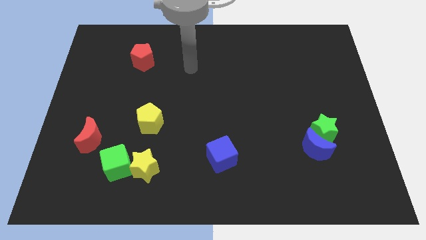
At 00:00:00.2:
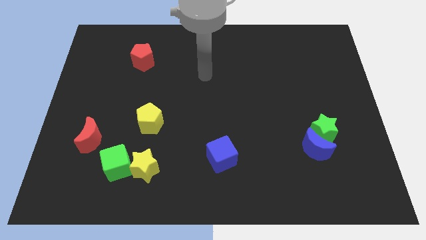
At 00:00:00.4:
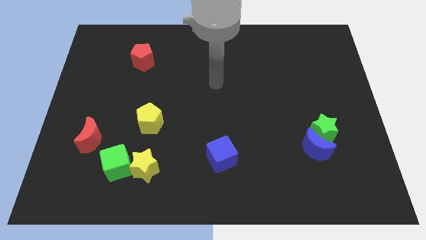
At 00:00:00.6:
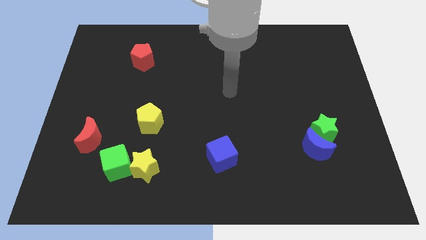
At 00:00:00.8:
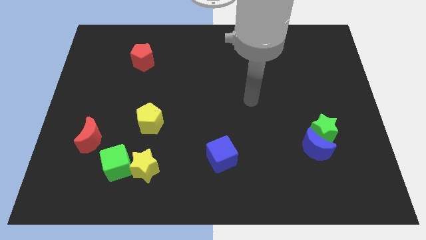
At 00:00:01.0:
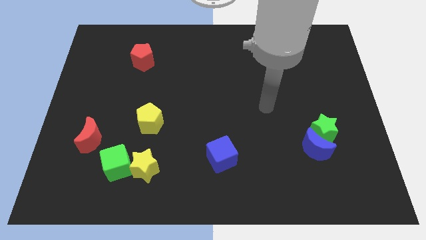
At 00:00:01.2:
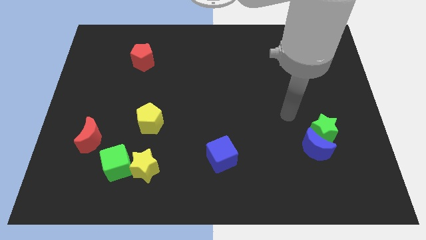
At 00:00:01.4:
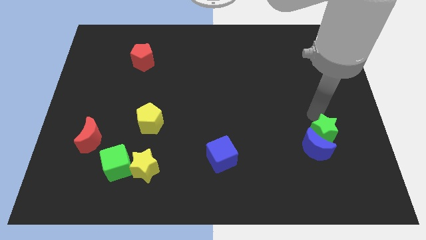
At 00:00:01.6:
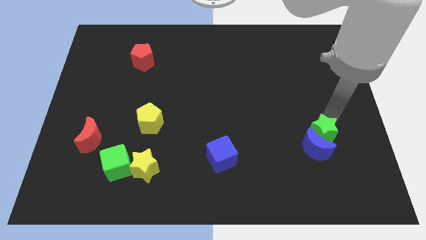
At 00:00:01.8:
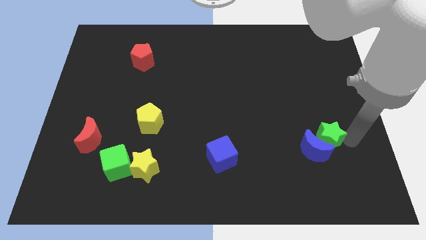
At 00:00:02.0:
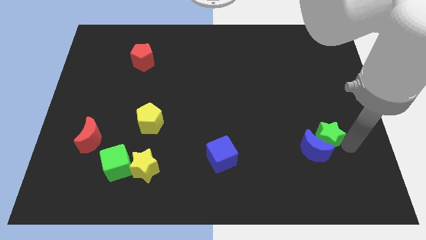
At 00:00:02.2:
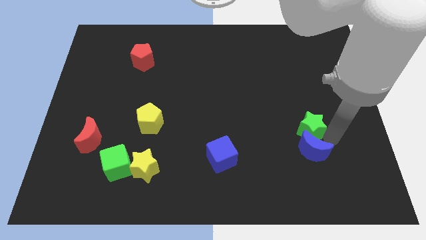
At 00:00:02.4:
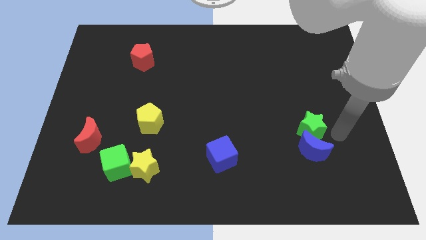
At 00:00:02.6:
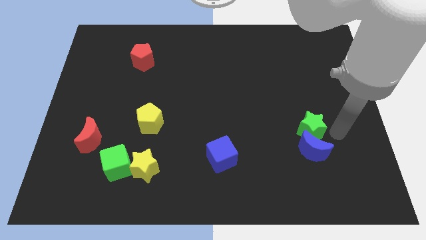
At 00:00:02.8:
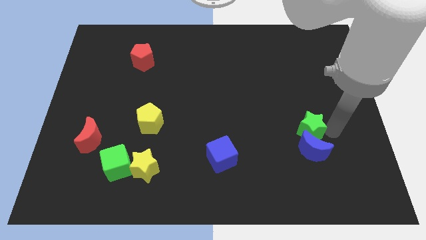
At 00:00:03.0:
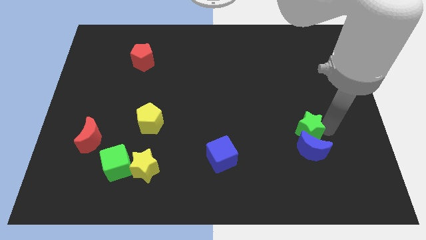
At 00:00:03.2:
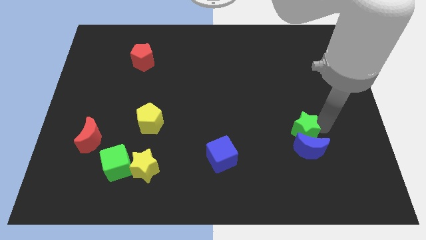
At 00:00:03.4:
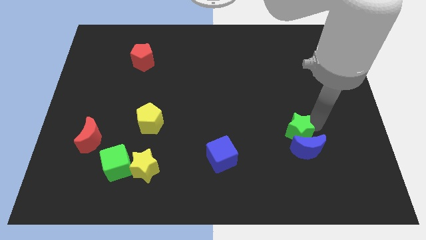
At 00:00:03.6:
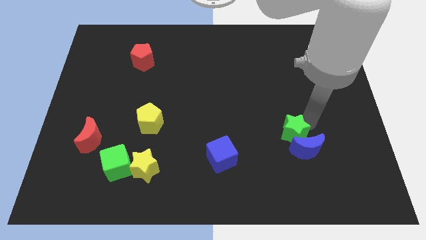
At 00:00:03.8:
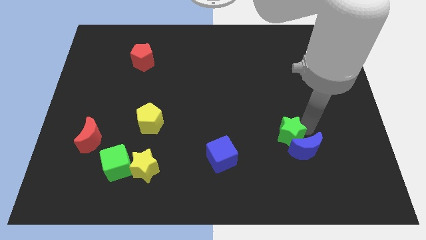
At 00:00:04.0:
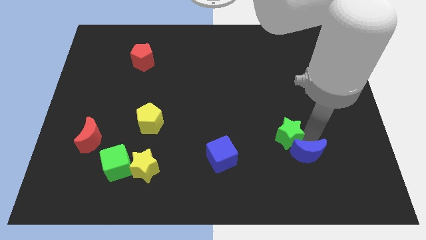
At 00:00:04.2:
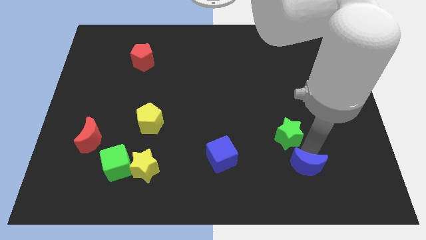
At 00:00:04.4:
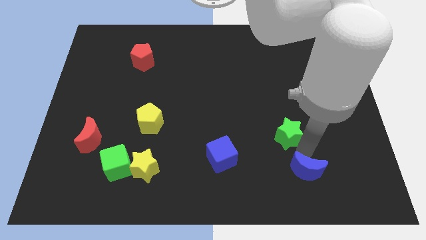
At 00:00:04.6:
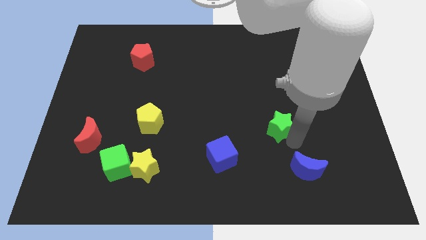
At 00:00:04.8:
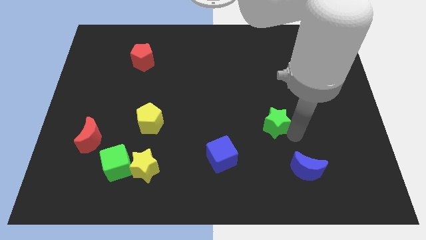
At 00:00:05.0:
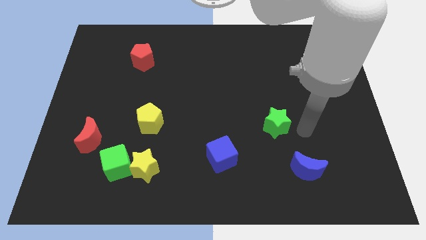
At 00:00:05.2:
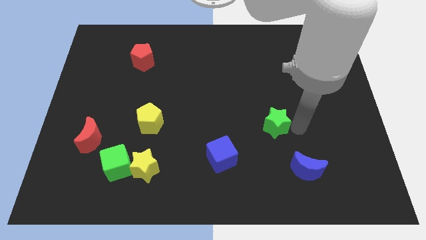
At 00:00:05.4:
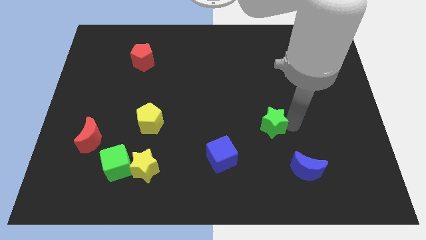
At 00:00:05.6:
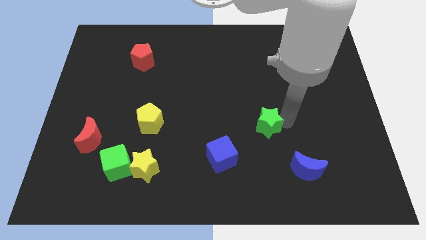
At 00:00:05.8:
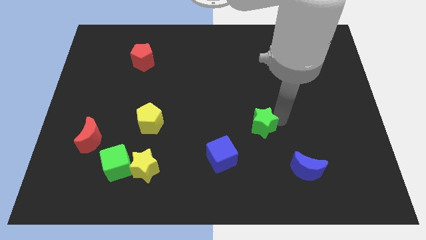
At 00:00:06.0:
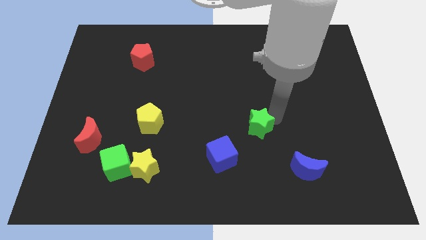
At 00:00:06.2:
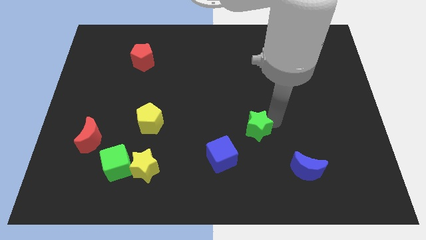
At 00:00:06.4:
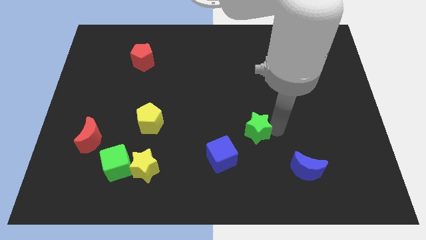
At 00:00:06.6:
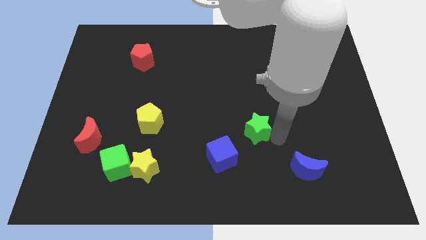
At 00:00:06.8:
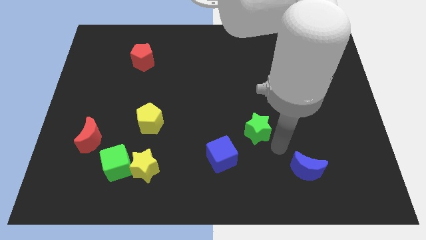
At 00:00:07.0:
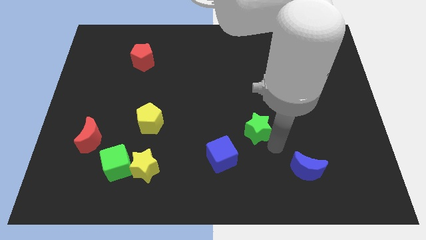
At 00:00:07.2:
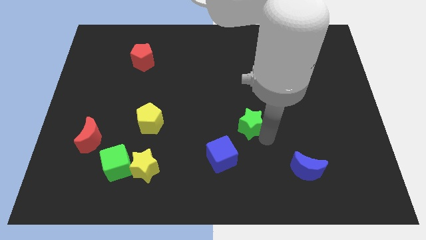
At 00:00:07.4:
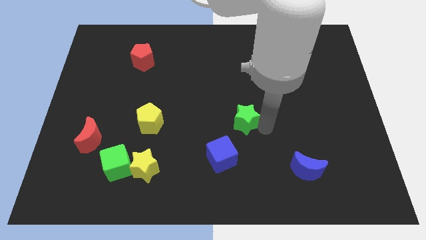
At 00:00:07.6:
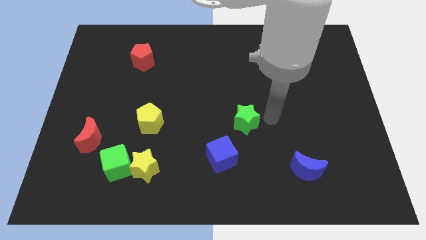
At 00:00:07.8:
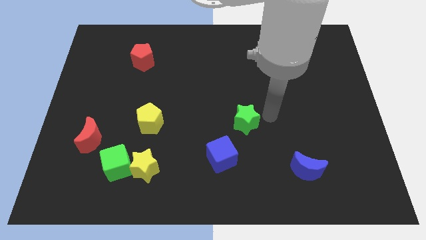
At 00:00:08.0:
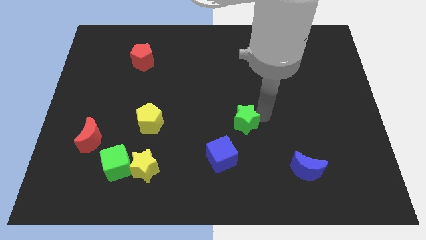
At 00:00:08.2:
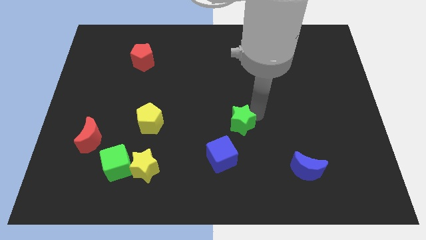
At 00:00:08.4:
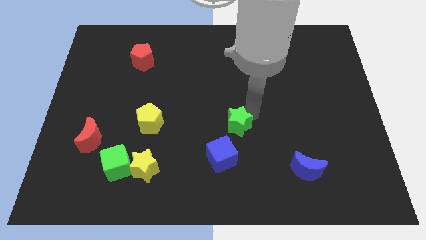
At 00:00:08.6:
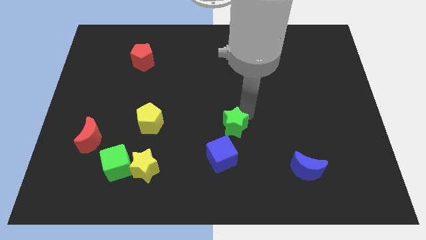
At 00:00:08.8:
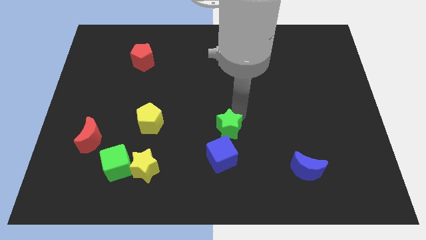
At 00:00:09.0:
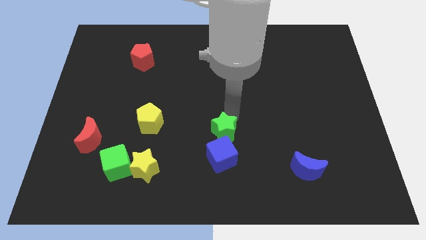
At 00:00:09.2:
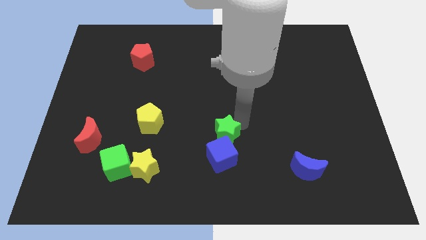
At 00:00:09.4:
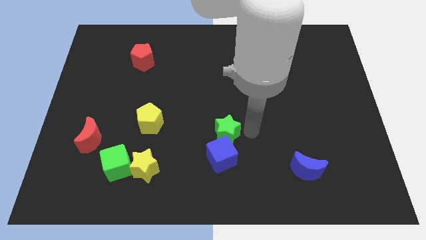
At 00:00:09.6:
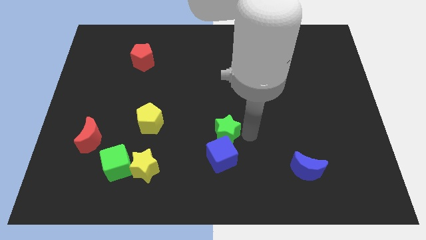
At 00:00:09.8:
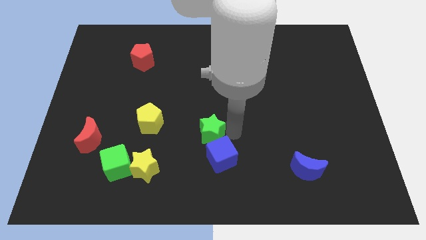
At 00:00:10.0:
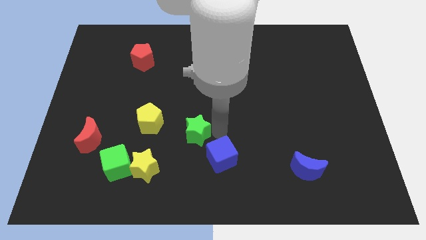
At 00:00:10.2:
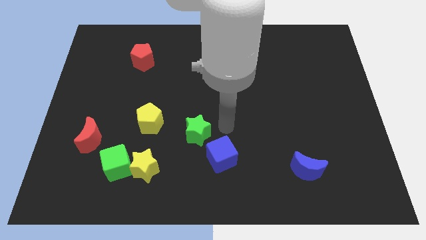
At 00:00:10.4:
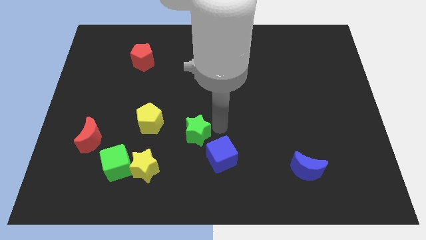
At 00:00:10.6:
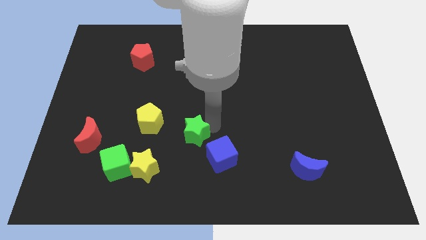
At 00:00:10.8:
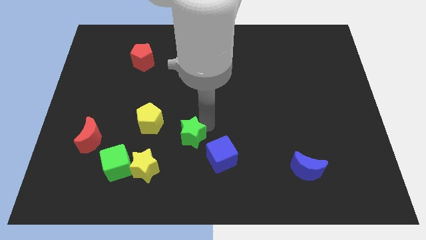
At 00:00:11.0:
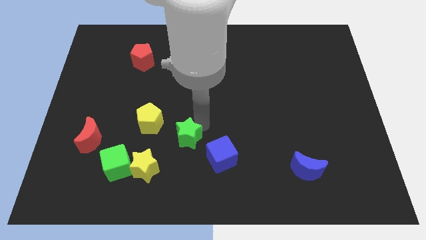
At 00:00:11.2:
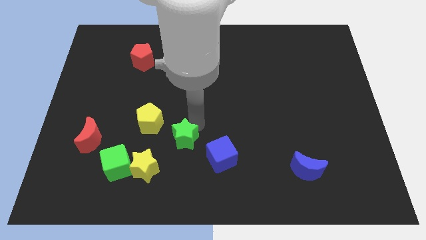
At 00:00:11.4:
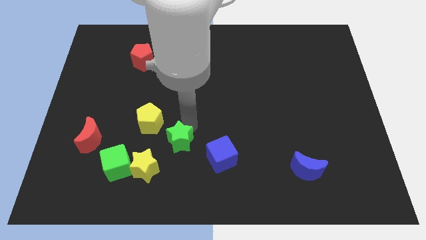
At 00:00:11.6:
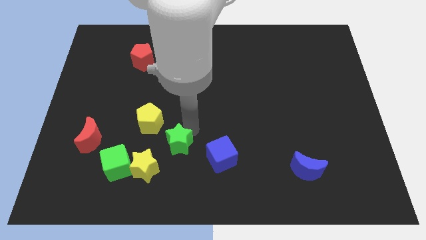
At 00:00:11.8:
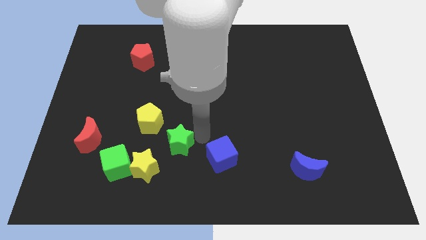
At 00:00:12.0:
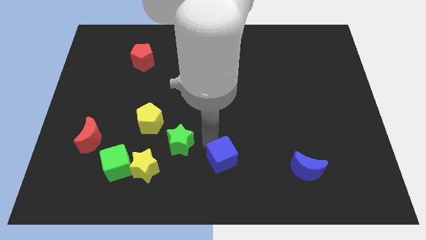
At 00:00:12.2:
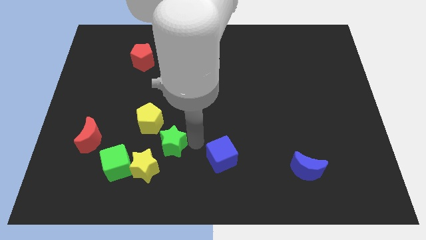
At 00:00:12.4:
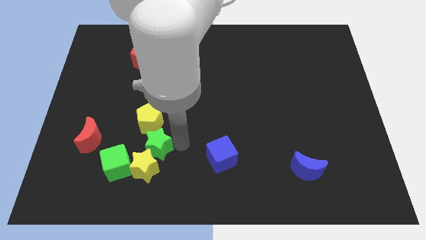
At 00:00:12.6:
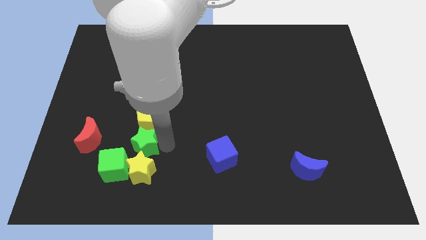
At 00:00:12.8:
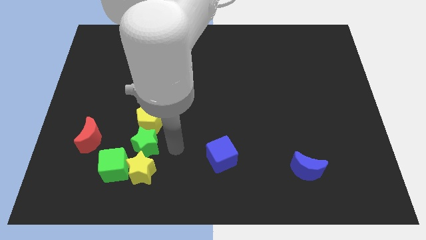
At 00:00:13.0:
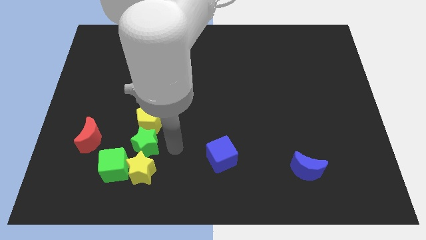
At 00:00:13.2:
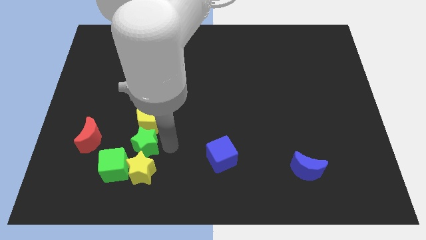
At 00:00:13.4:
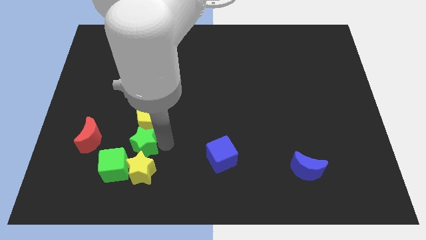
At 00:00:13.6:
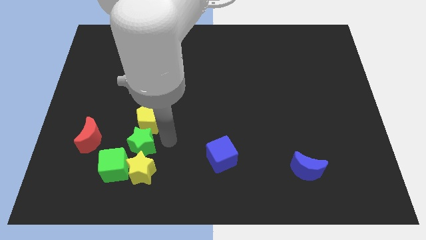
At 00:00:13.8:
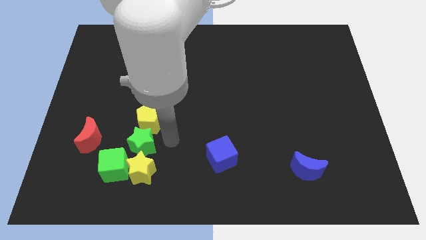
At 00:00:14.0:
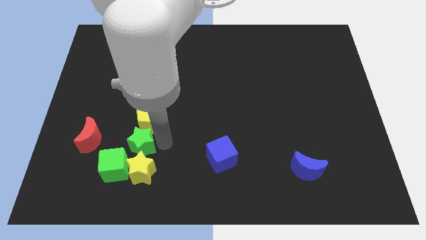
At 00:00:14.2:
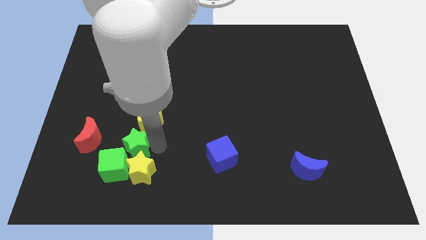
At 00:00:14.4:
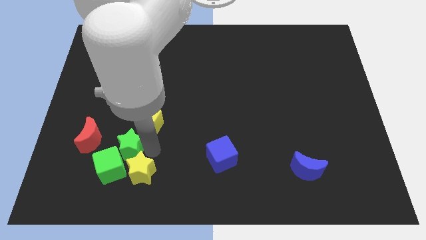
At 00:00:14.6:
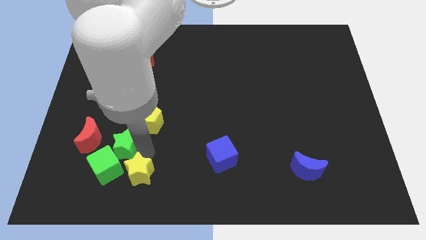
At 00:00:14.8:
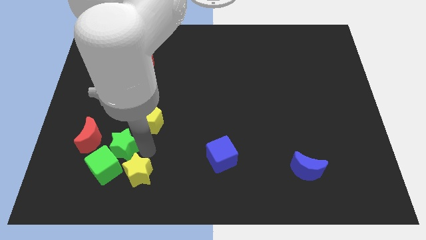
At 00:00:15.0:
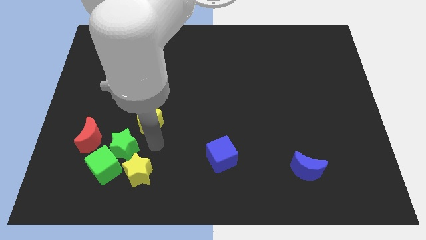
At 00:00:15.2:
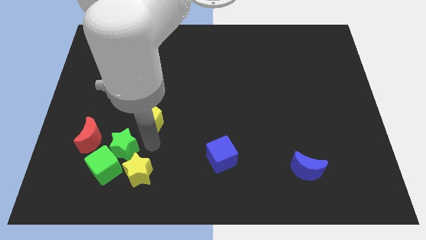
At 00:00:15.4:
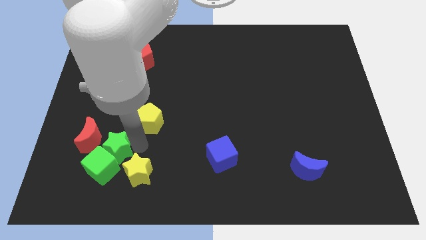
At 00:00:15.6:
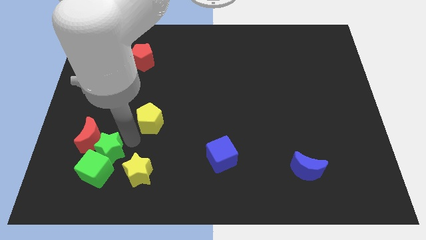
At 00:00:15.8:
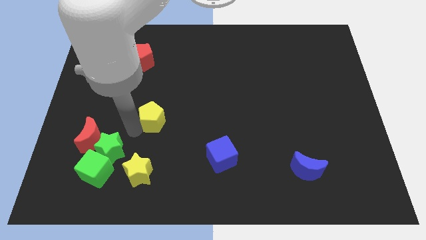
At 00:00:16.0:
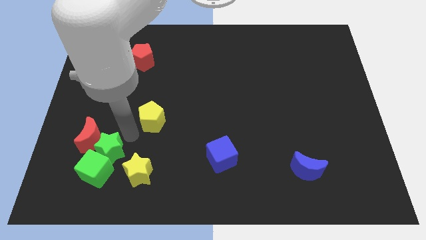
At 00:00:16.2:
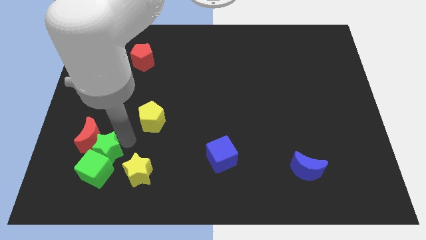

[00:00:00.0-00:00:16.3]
move the green star just left of the yellow star
